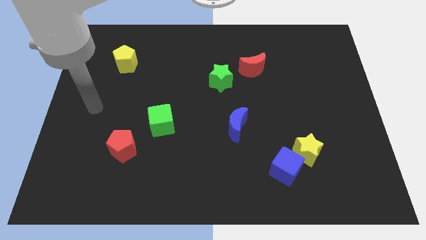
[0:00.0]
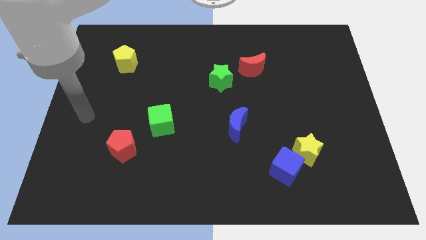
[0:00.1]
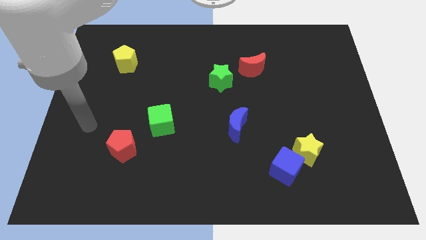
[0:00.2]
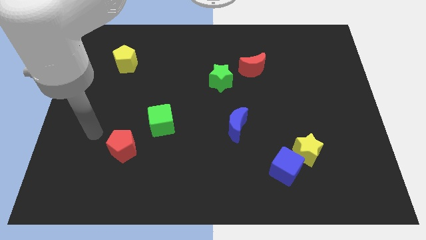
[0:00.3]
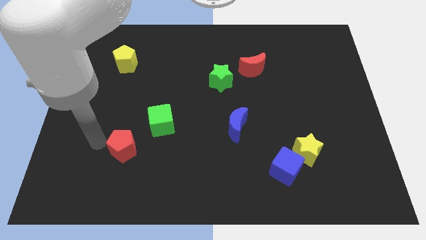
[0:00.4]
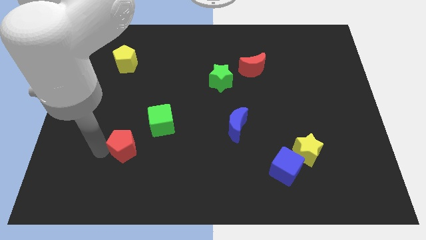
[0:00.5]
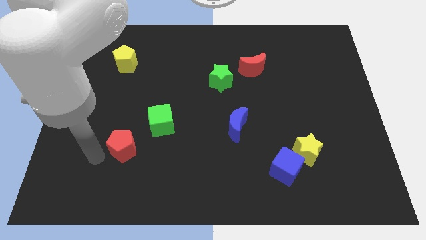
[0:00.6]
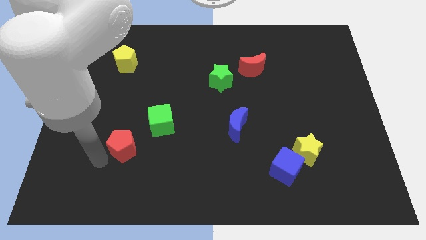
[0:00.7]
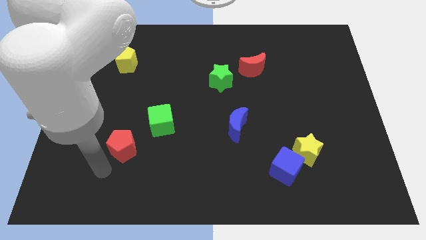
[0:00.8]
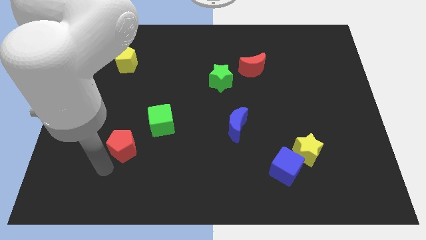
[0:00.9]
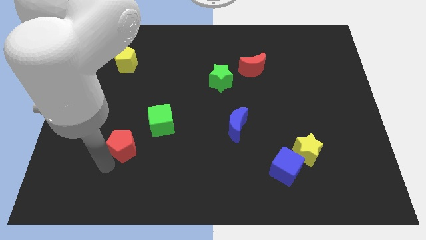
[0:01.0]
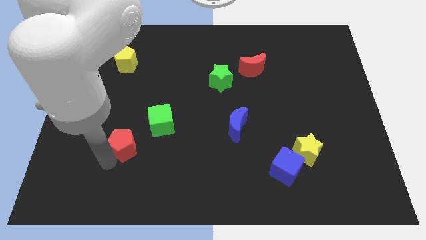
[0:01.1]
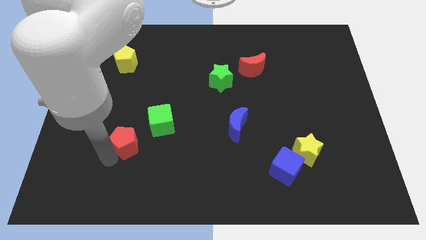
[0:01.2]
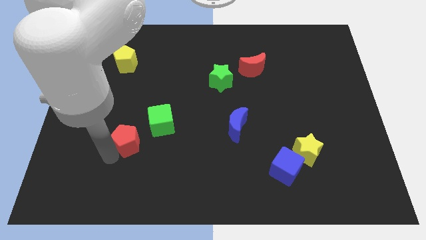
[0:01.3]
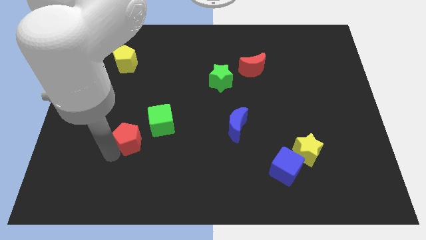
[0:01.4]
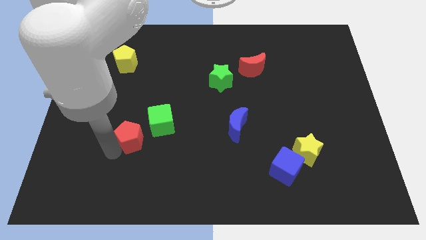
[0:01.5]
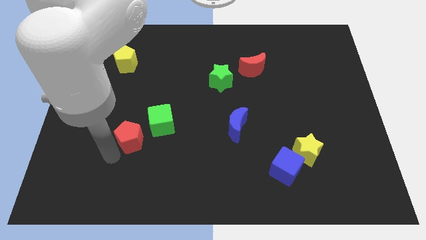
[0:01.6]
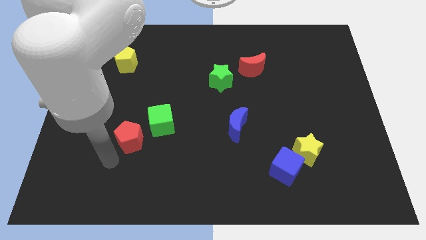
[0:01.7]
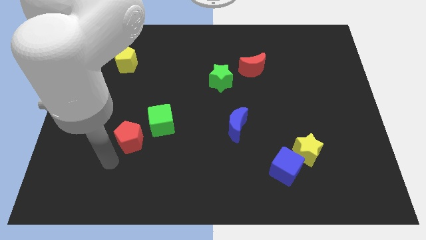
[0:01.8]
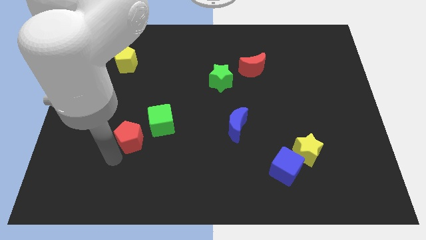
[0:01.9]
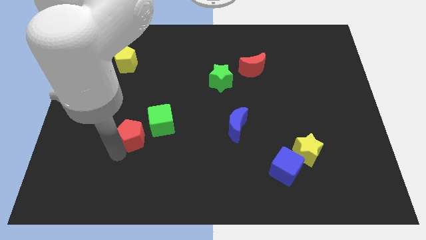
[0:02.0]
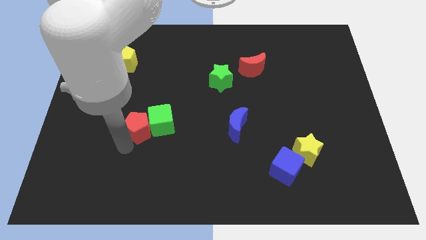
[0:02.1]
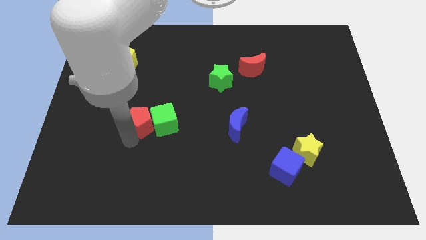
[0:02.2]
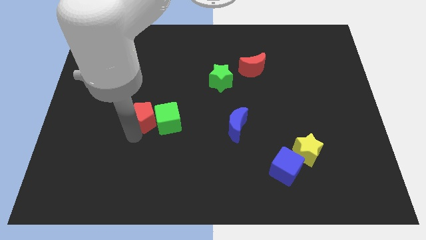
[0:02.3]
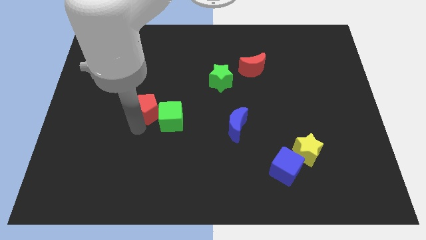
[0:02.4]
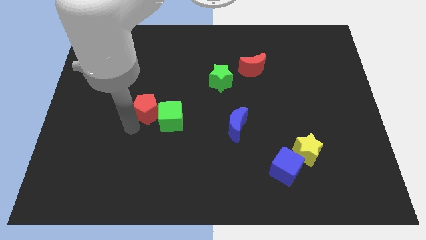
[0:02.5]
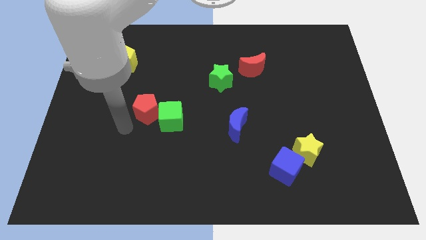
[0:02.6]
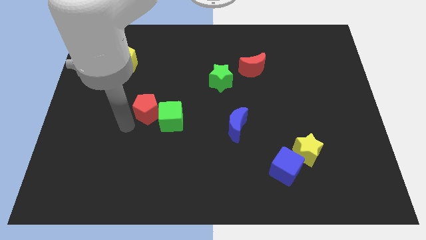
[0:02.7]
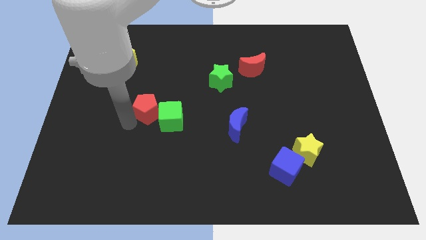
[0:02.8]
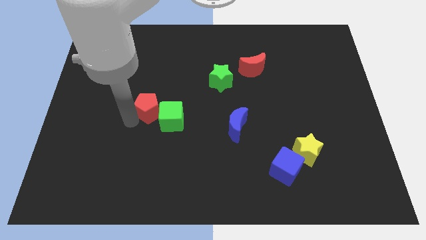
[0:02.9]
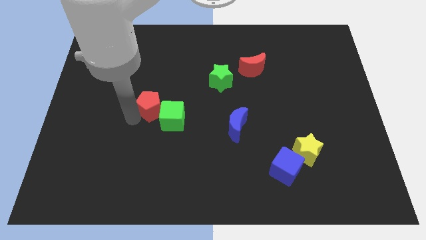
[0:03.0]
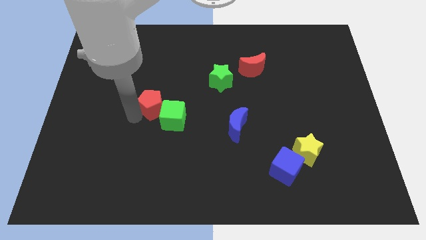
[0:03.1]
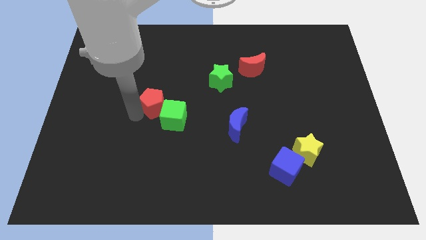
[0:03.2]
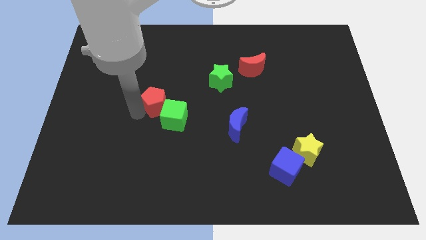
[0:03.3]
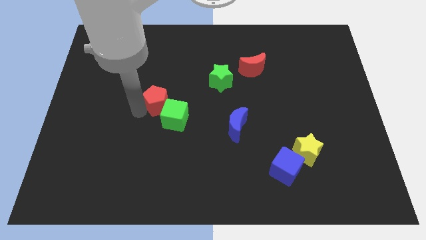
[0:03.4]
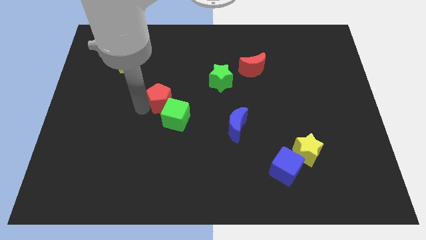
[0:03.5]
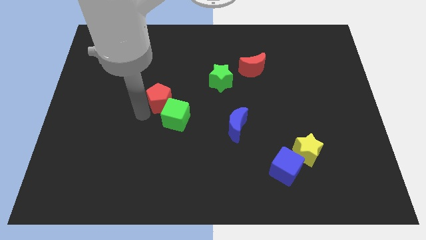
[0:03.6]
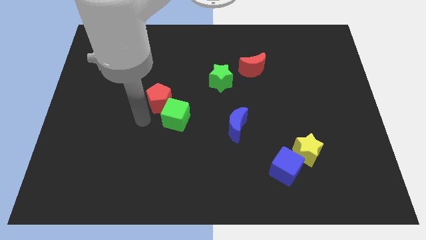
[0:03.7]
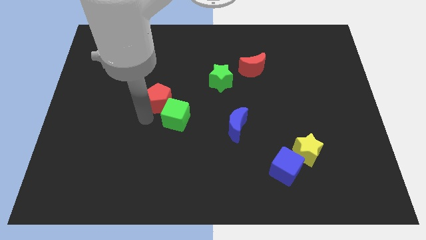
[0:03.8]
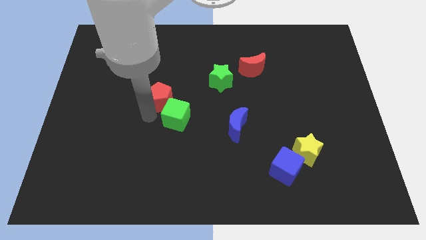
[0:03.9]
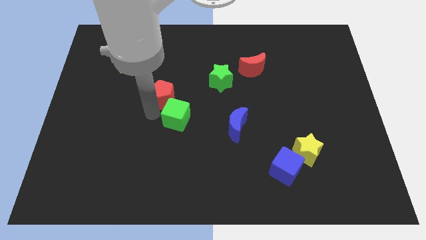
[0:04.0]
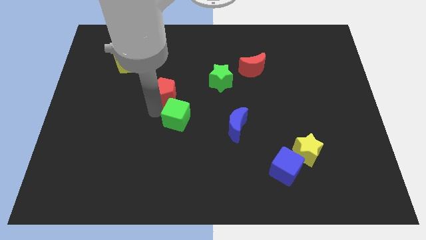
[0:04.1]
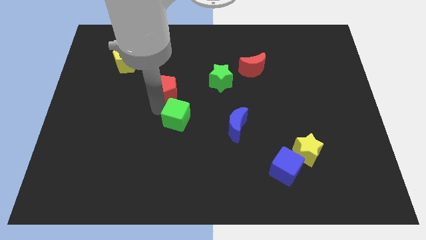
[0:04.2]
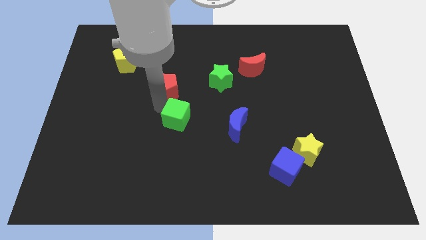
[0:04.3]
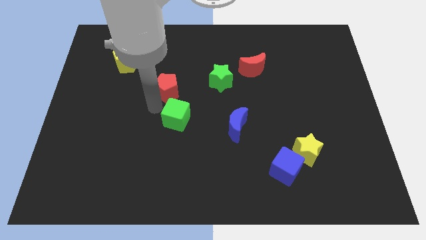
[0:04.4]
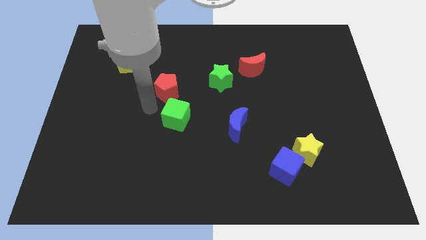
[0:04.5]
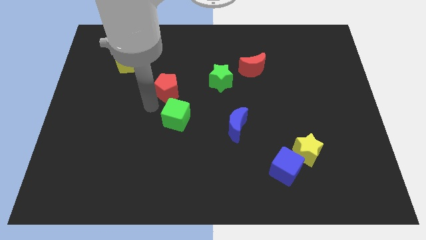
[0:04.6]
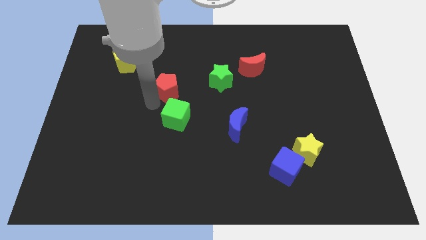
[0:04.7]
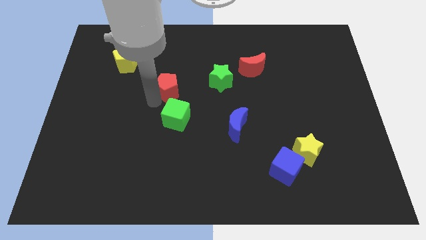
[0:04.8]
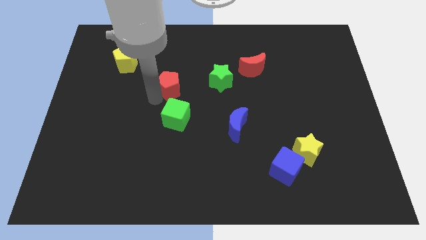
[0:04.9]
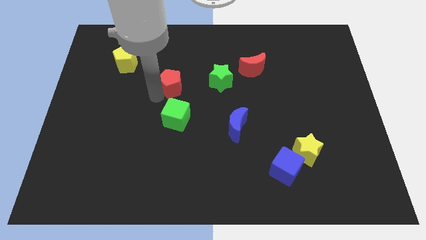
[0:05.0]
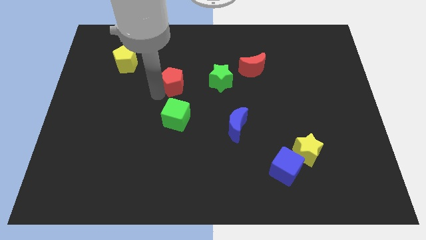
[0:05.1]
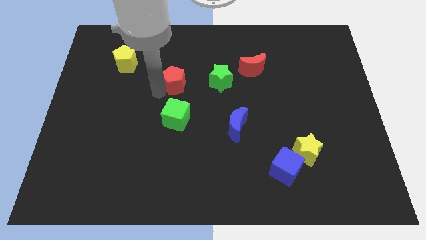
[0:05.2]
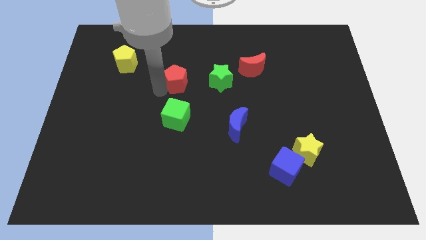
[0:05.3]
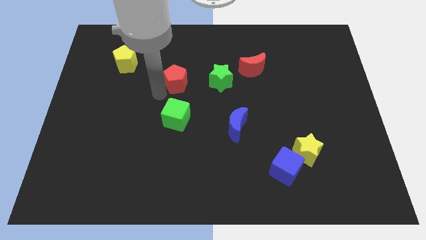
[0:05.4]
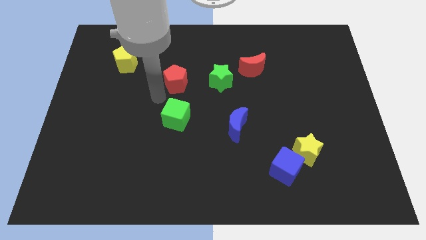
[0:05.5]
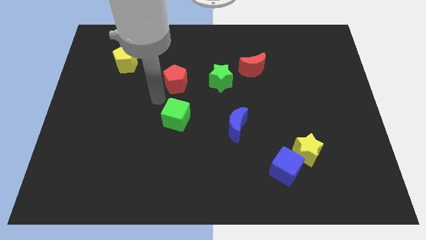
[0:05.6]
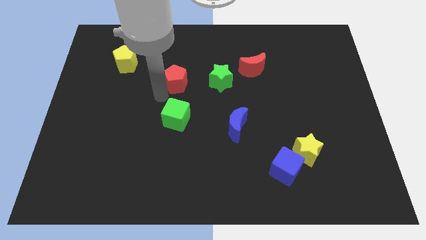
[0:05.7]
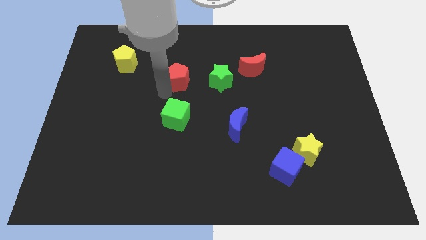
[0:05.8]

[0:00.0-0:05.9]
move the red pentagon upwards and to the right diagonally

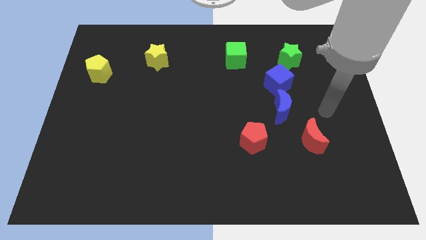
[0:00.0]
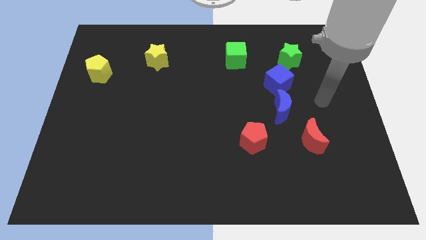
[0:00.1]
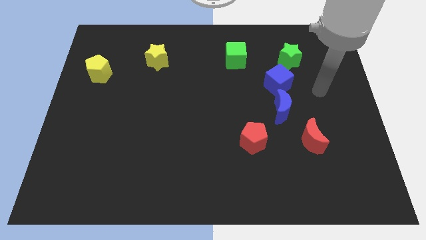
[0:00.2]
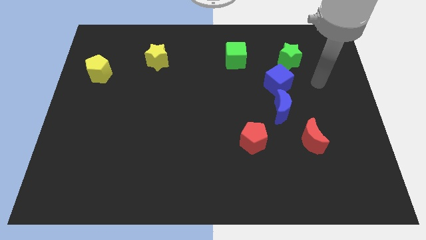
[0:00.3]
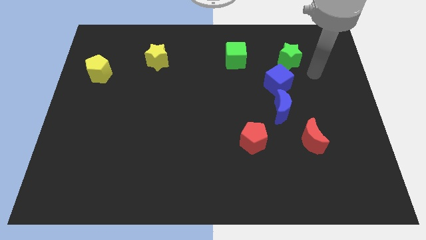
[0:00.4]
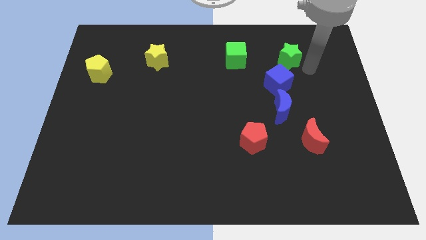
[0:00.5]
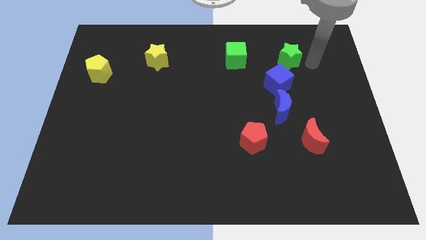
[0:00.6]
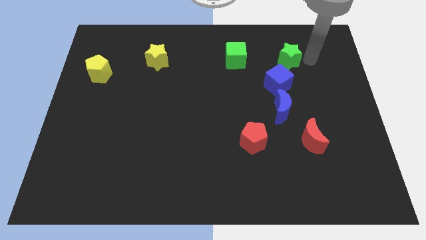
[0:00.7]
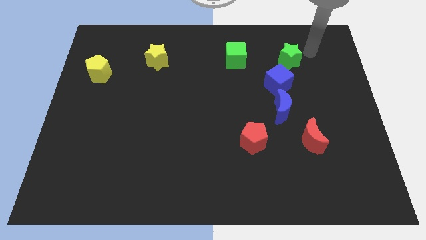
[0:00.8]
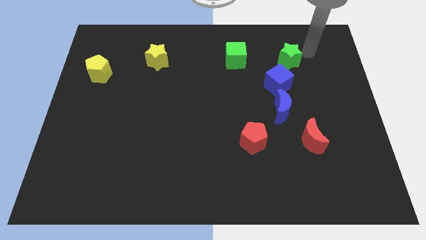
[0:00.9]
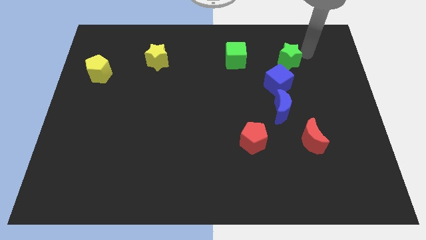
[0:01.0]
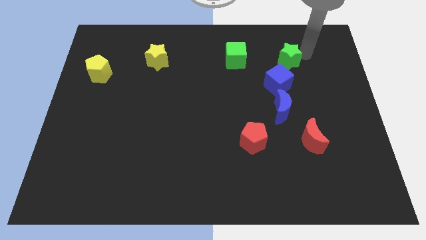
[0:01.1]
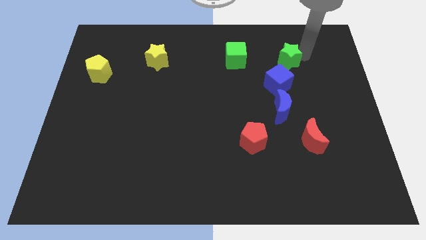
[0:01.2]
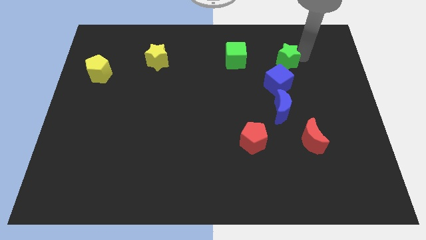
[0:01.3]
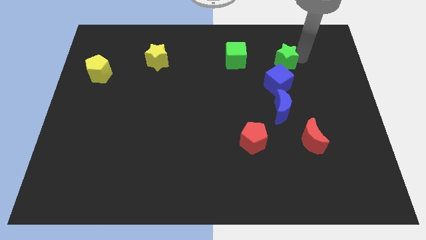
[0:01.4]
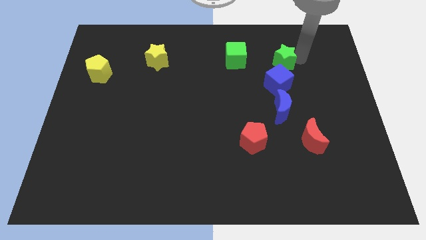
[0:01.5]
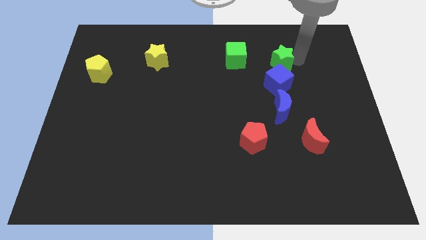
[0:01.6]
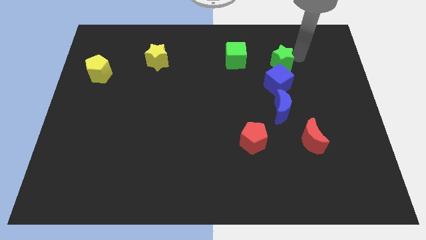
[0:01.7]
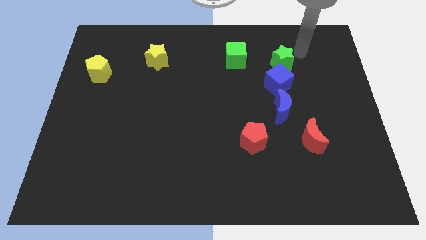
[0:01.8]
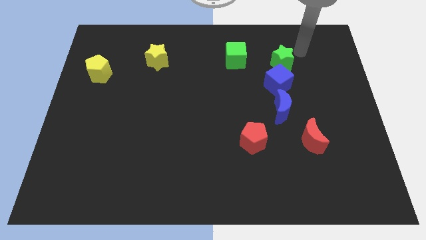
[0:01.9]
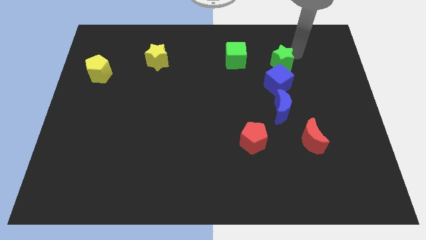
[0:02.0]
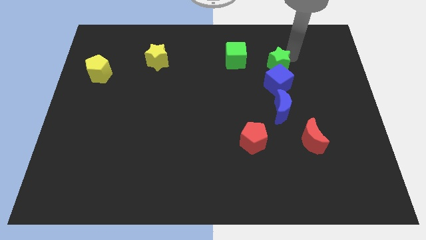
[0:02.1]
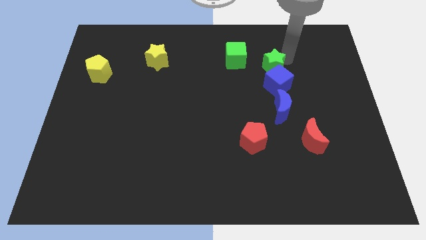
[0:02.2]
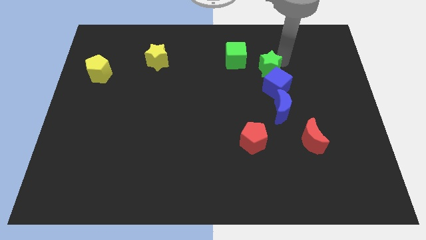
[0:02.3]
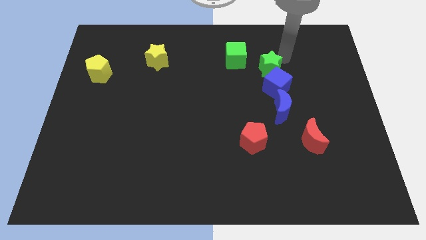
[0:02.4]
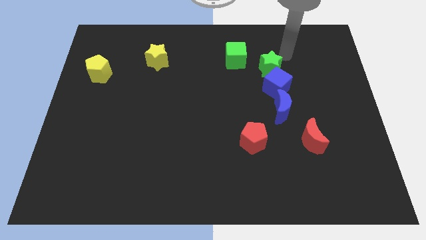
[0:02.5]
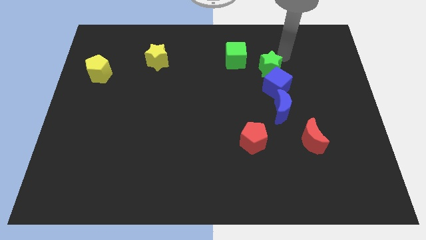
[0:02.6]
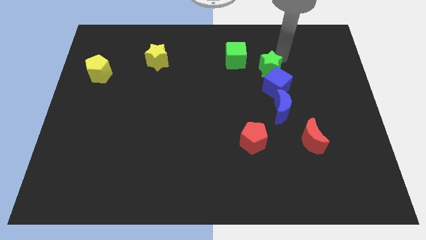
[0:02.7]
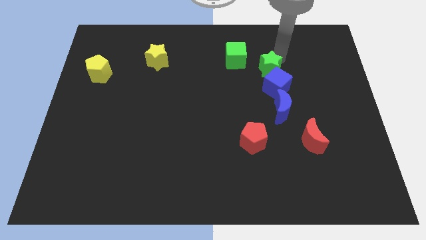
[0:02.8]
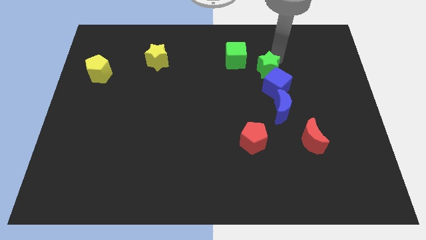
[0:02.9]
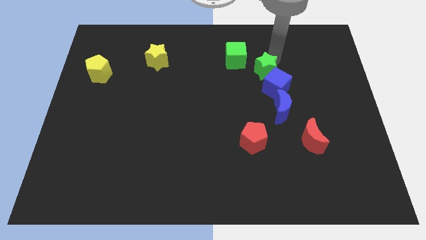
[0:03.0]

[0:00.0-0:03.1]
slide the green star a little down and then left
